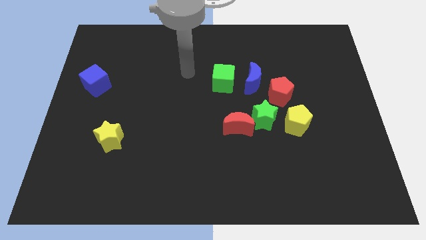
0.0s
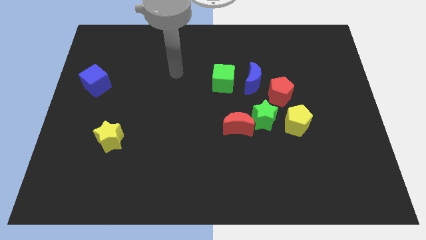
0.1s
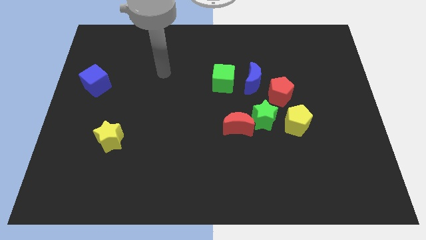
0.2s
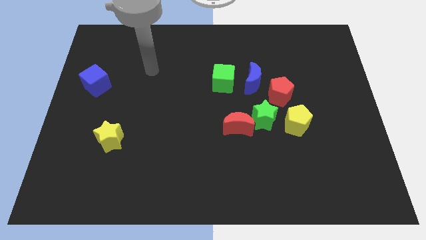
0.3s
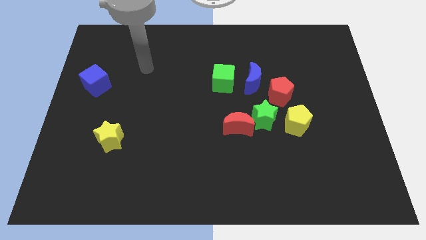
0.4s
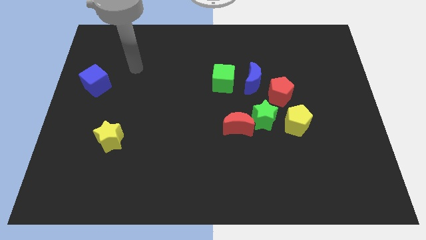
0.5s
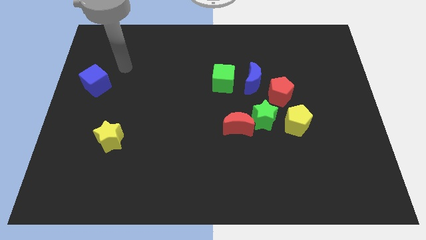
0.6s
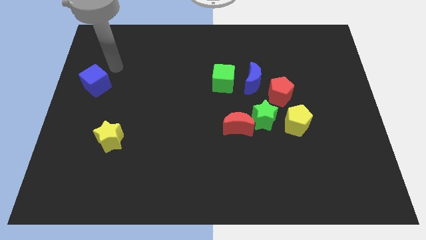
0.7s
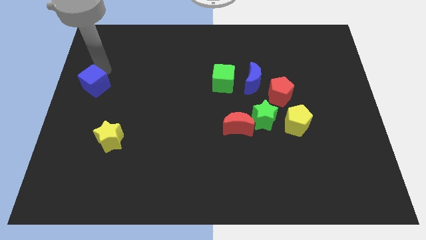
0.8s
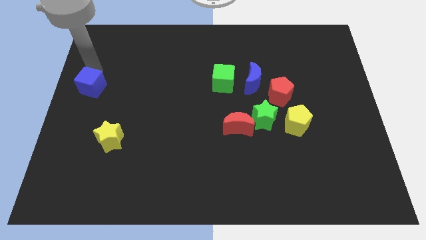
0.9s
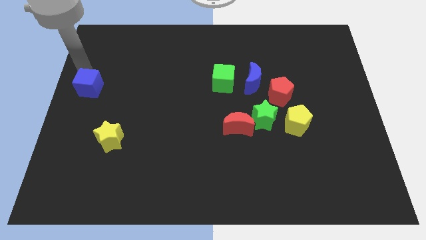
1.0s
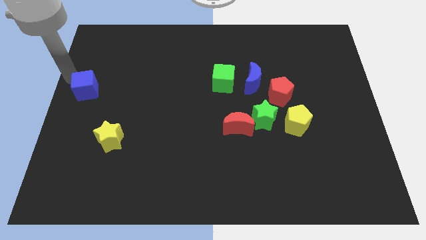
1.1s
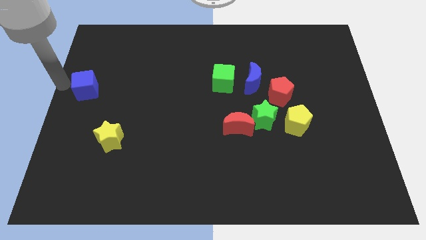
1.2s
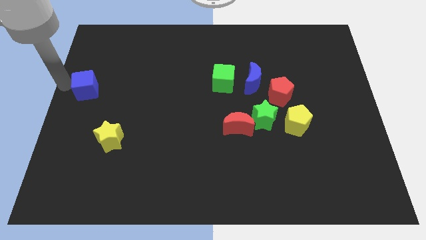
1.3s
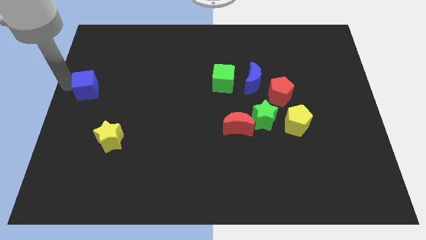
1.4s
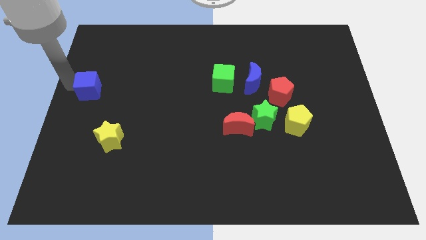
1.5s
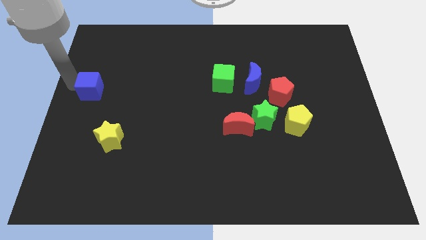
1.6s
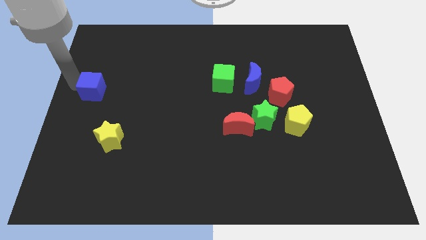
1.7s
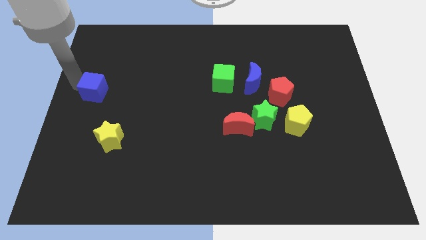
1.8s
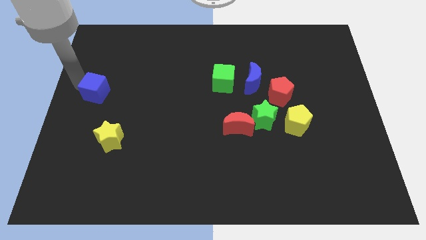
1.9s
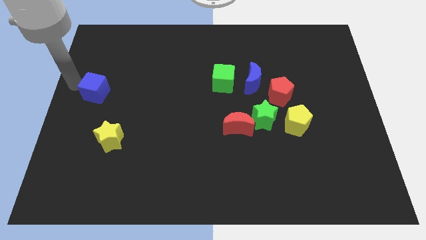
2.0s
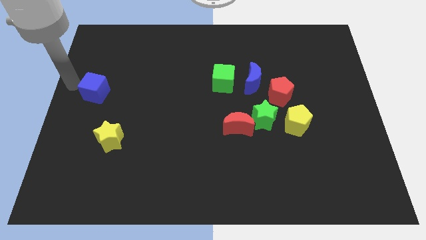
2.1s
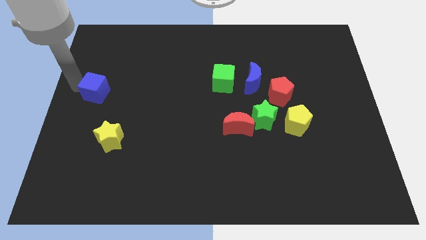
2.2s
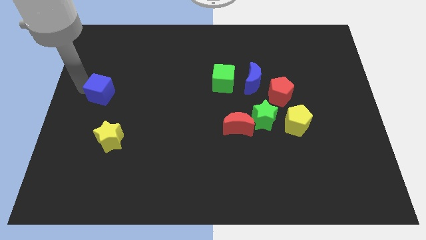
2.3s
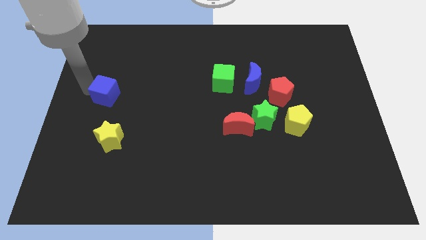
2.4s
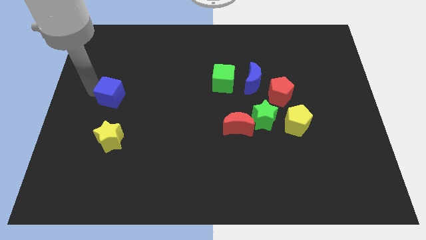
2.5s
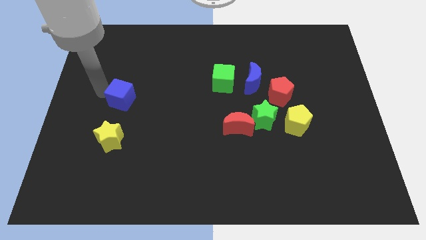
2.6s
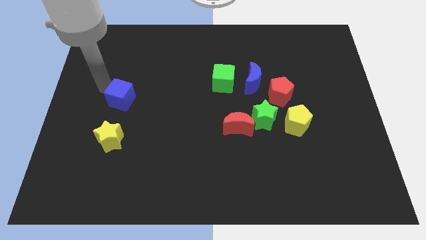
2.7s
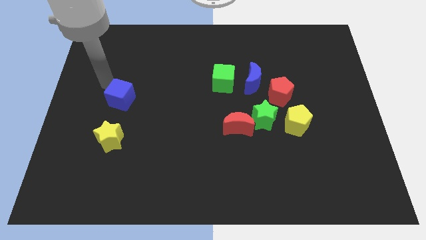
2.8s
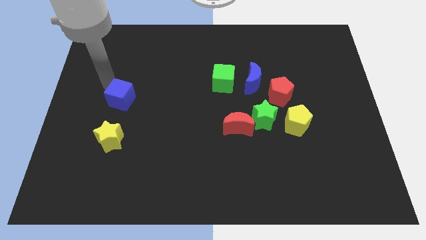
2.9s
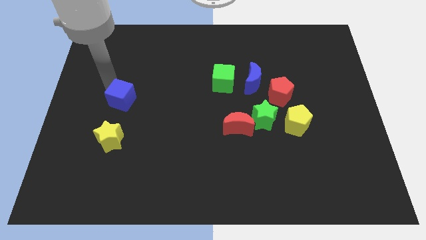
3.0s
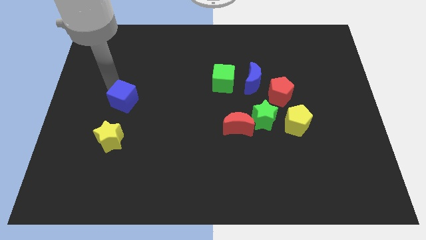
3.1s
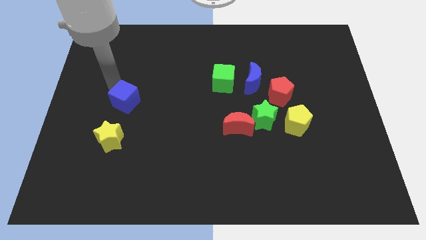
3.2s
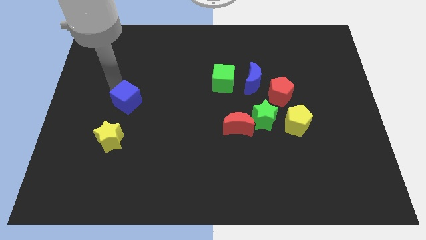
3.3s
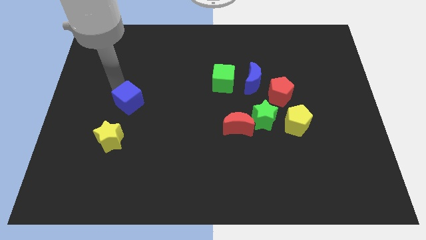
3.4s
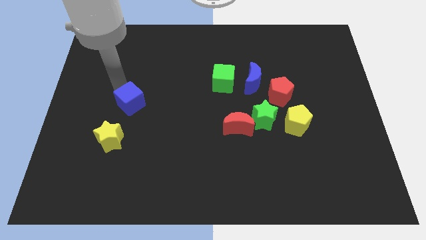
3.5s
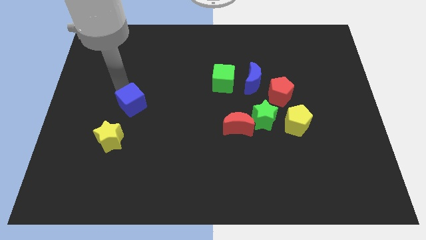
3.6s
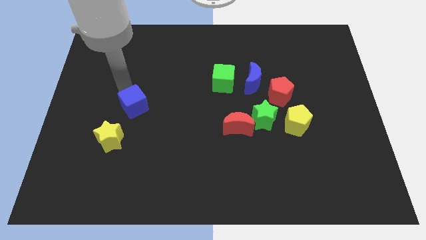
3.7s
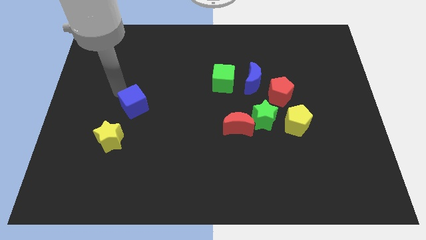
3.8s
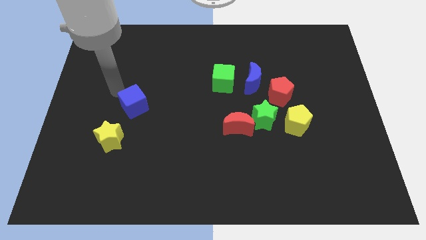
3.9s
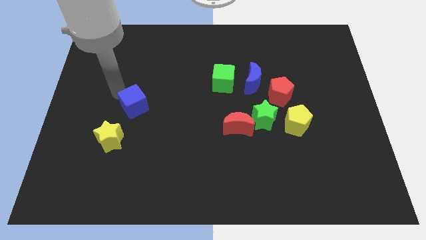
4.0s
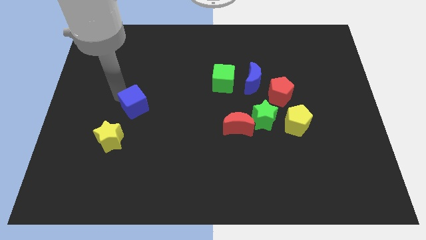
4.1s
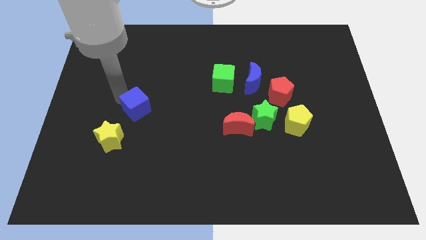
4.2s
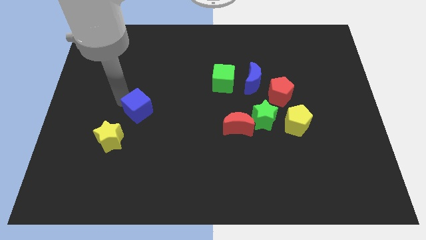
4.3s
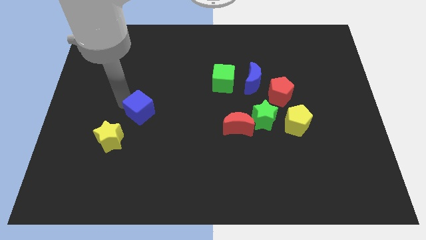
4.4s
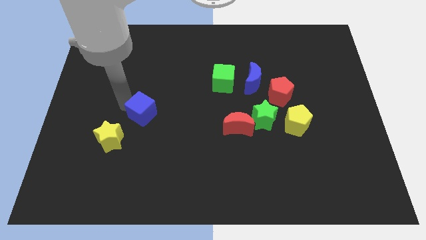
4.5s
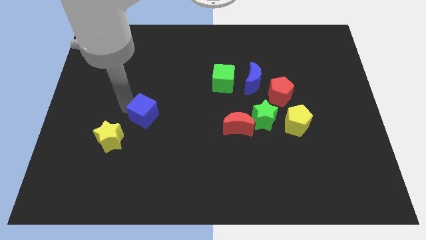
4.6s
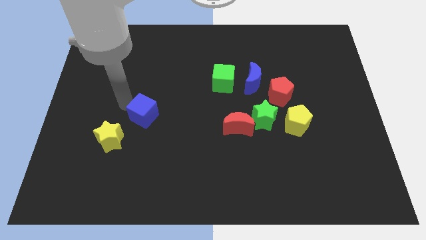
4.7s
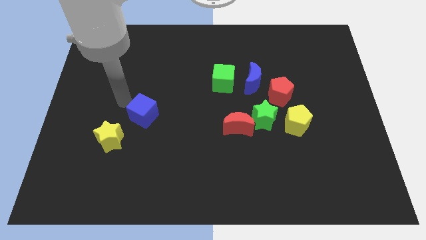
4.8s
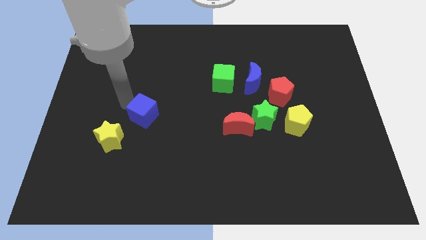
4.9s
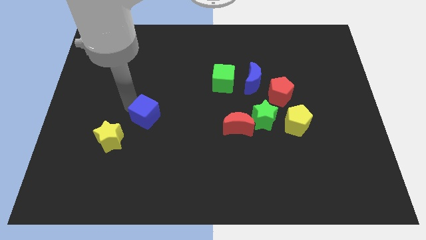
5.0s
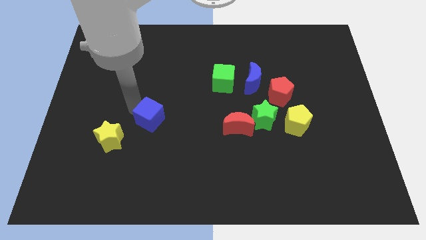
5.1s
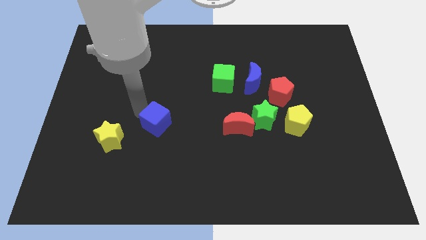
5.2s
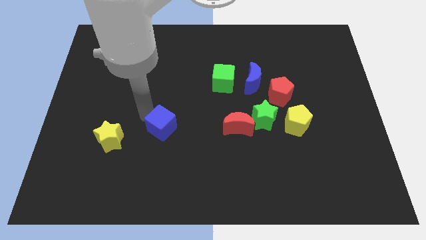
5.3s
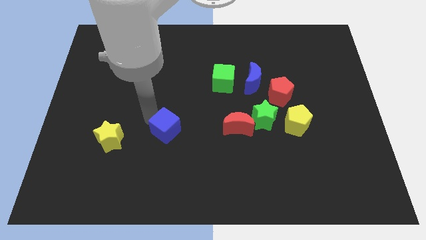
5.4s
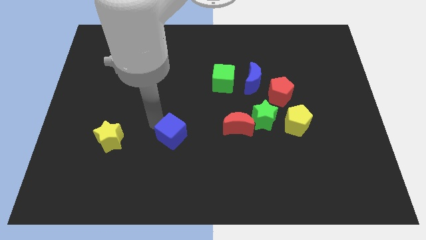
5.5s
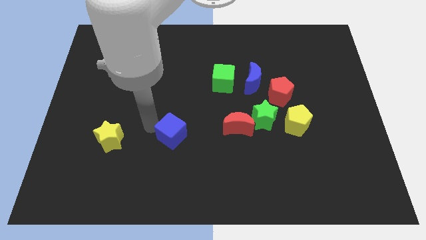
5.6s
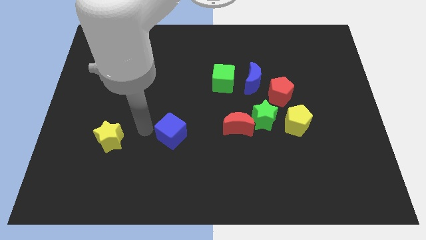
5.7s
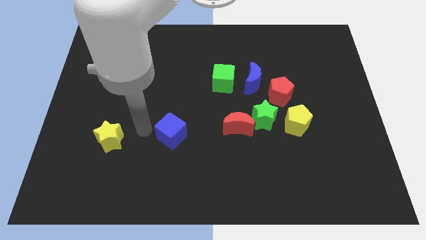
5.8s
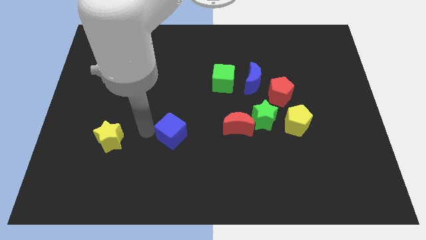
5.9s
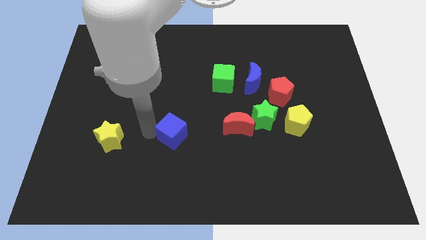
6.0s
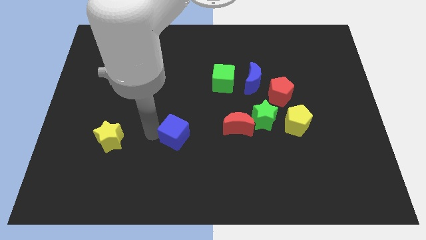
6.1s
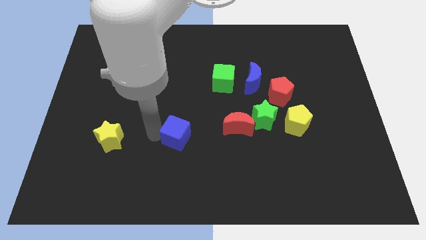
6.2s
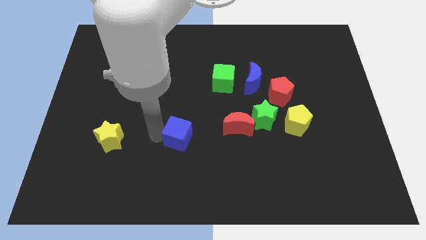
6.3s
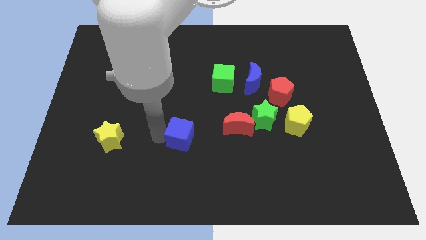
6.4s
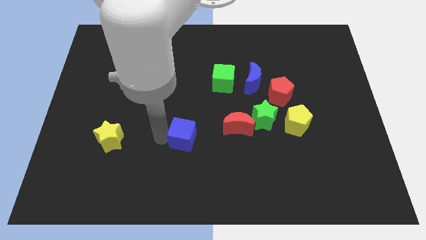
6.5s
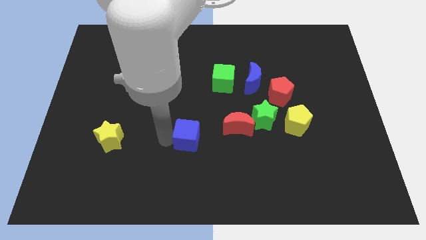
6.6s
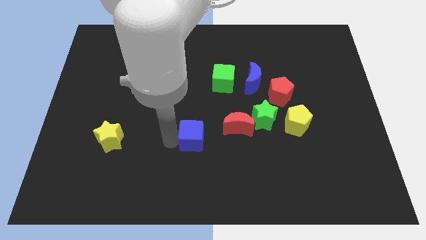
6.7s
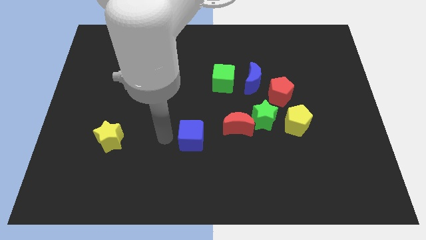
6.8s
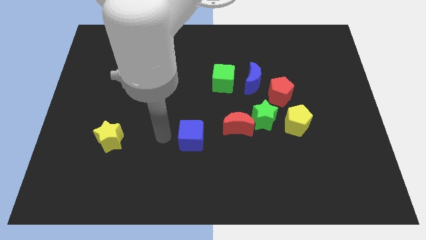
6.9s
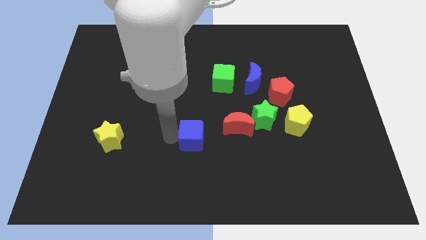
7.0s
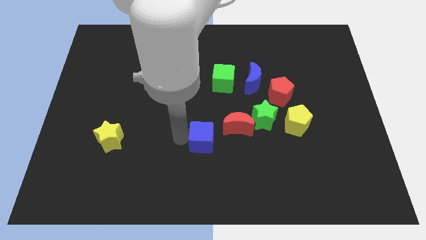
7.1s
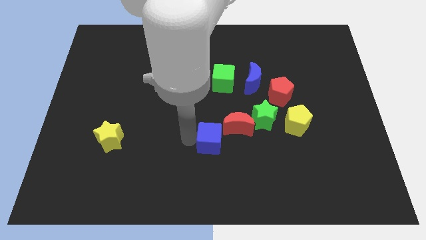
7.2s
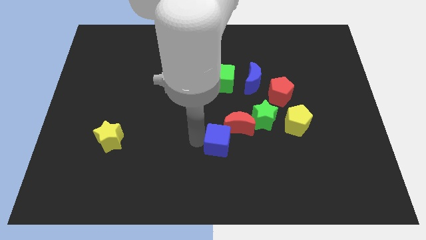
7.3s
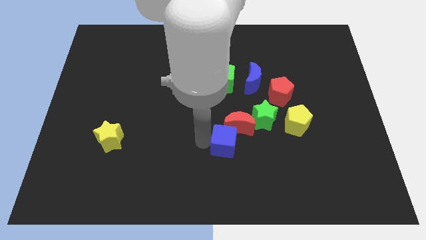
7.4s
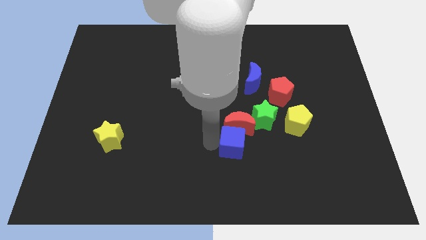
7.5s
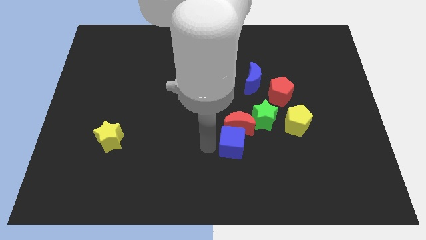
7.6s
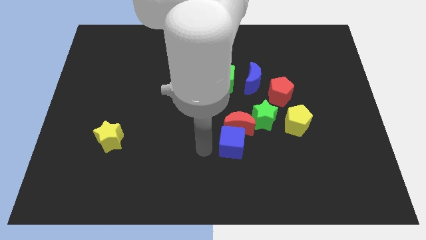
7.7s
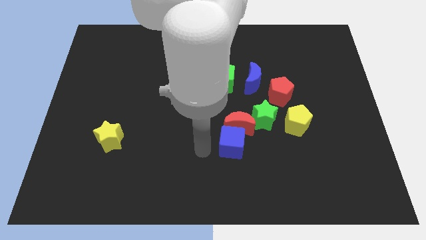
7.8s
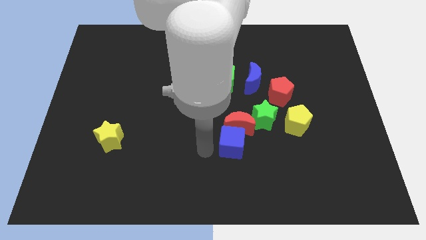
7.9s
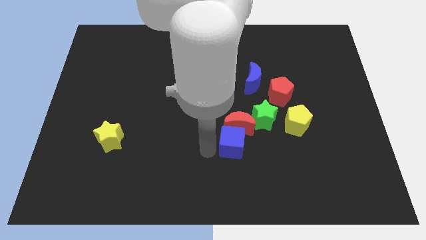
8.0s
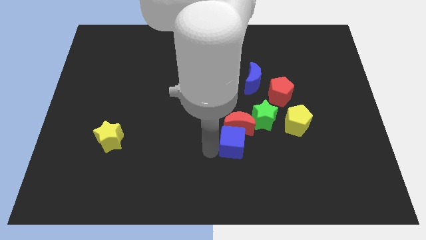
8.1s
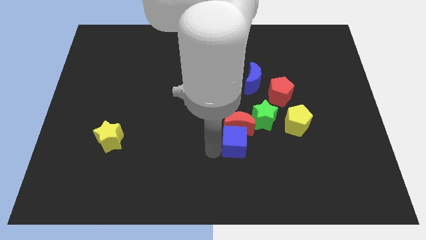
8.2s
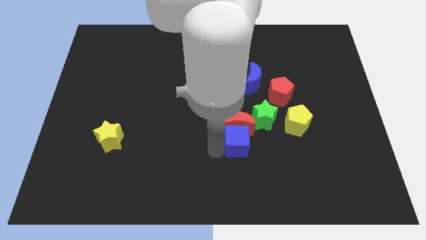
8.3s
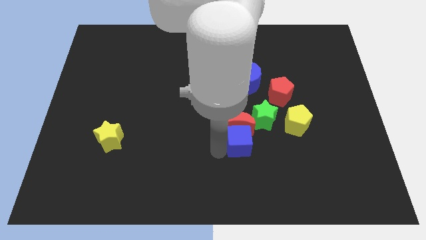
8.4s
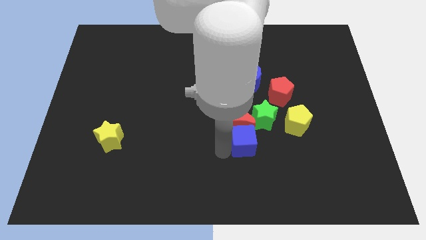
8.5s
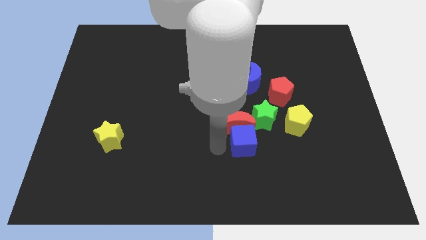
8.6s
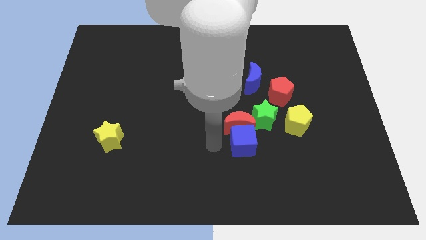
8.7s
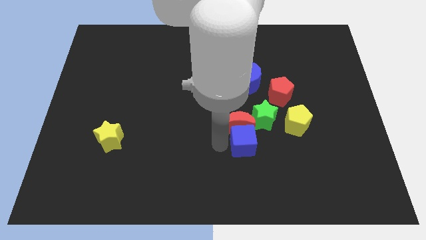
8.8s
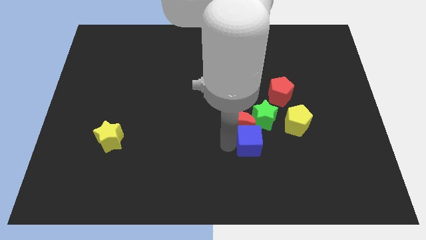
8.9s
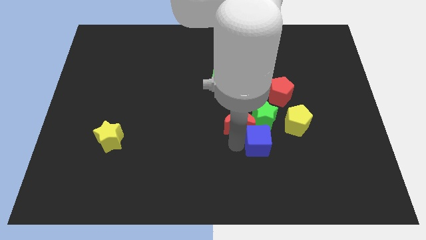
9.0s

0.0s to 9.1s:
push the blue cube diagonally down and to the left of the yellow pentagon
